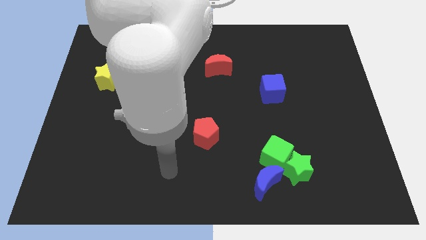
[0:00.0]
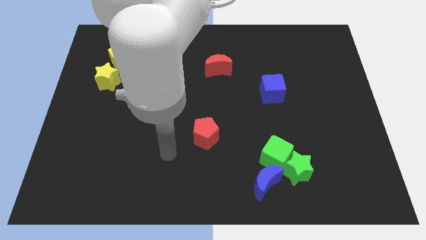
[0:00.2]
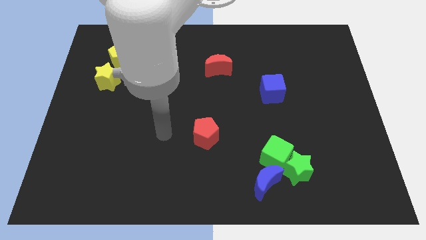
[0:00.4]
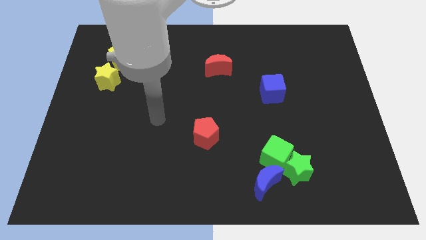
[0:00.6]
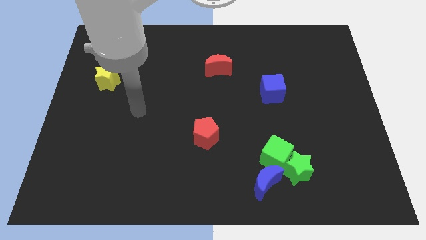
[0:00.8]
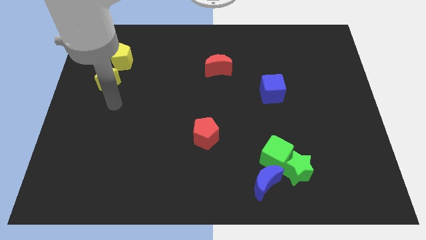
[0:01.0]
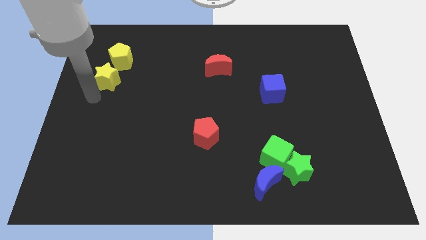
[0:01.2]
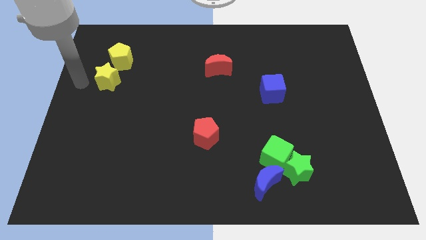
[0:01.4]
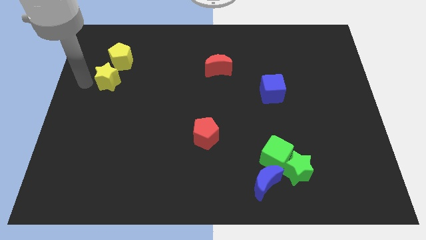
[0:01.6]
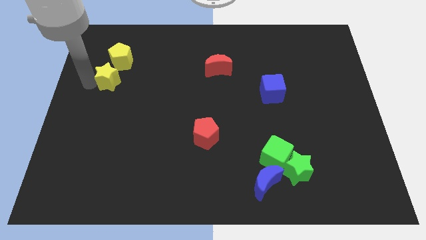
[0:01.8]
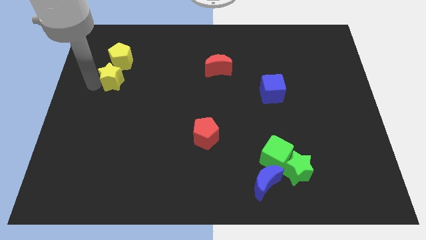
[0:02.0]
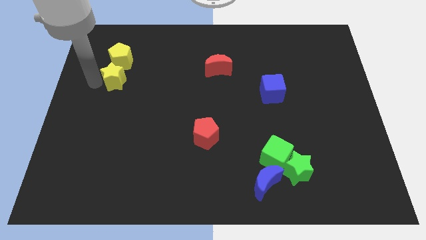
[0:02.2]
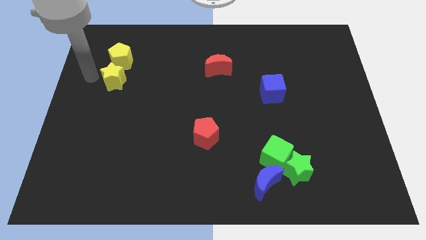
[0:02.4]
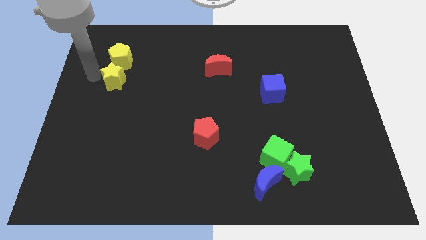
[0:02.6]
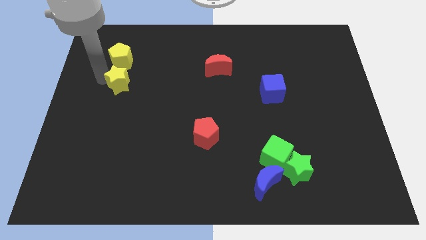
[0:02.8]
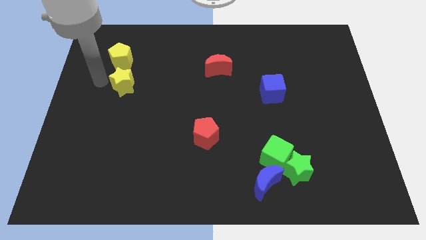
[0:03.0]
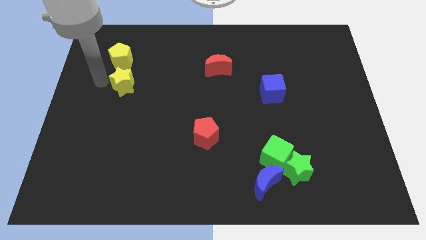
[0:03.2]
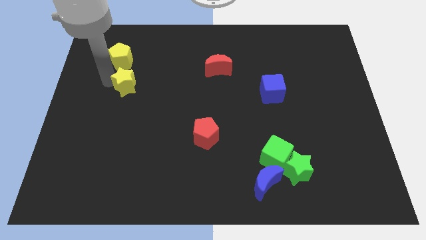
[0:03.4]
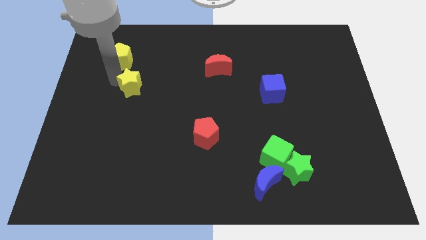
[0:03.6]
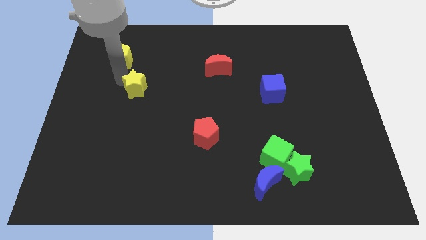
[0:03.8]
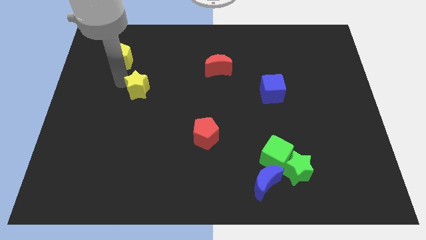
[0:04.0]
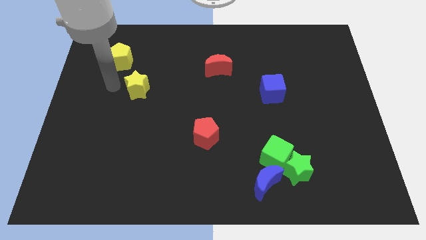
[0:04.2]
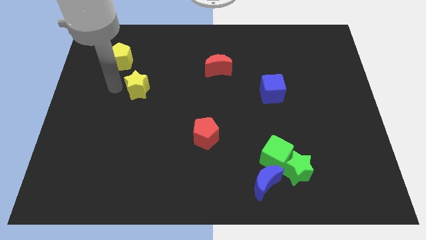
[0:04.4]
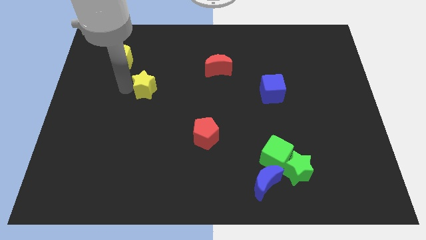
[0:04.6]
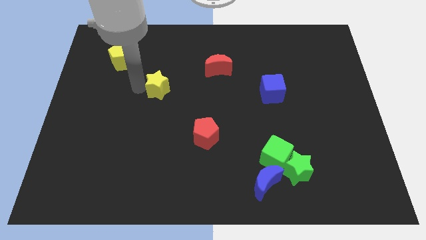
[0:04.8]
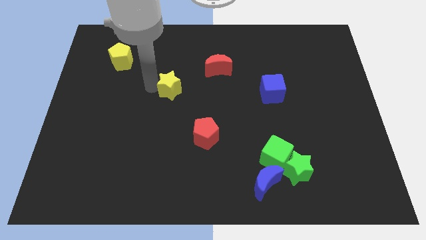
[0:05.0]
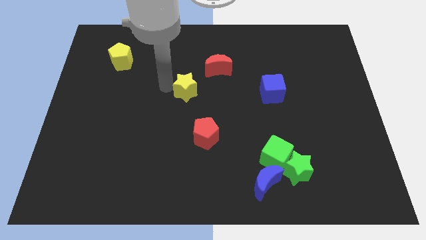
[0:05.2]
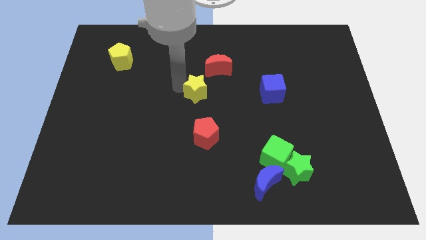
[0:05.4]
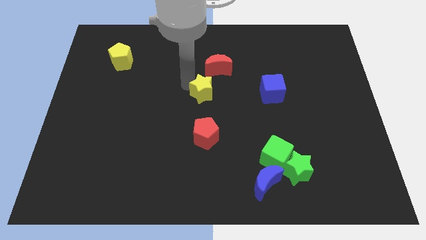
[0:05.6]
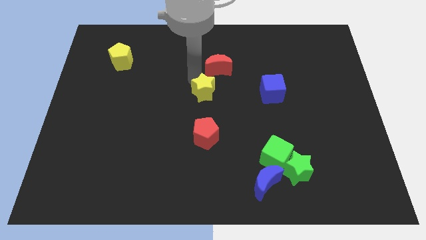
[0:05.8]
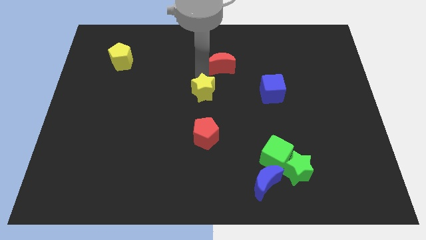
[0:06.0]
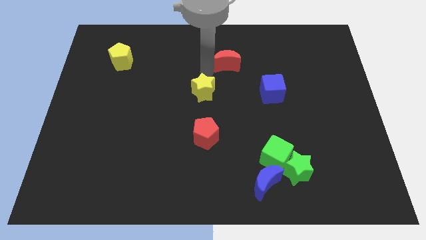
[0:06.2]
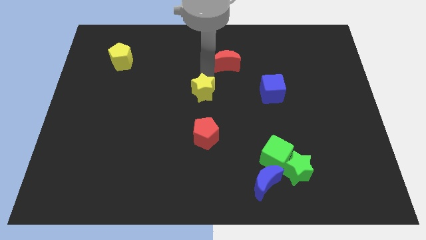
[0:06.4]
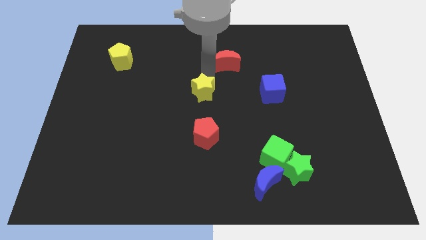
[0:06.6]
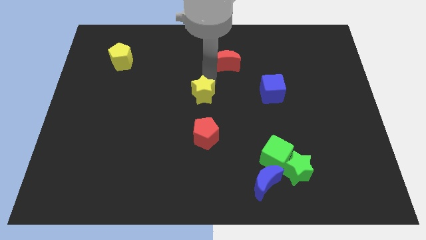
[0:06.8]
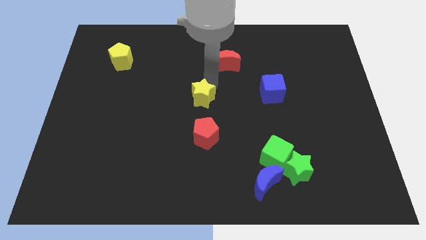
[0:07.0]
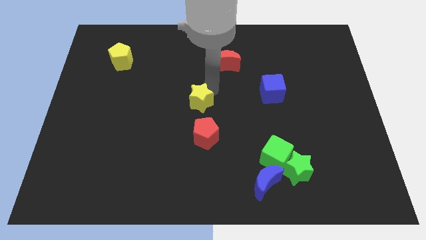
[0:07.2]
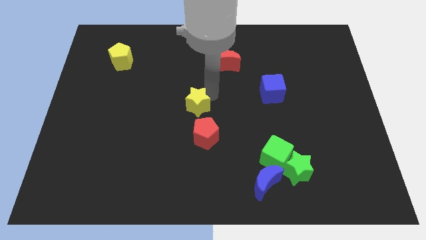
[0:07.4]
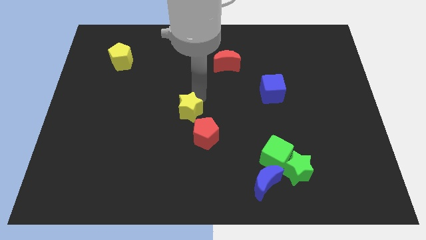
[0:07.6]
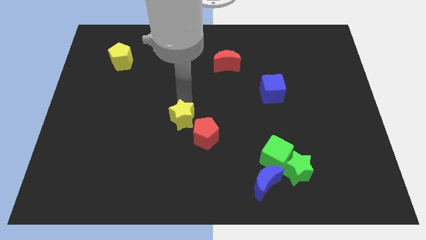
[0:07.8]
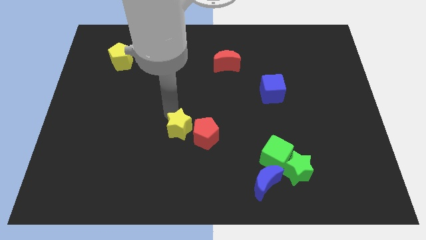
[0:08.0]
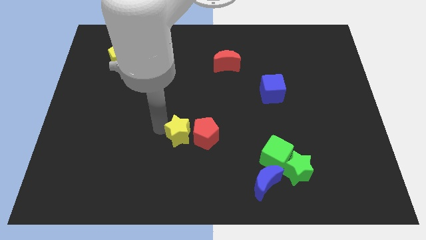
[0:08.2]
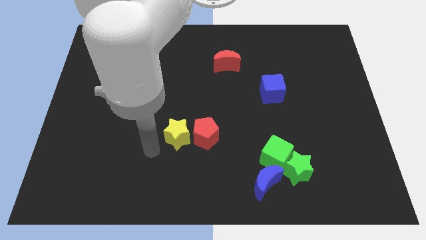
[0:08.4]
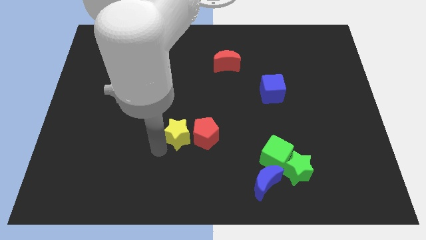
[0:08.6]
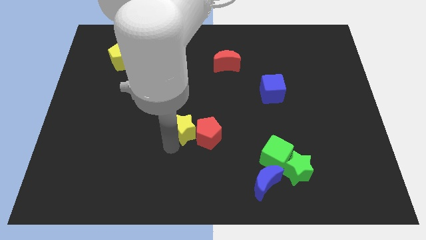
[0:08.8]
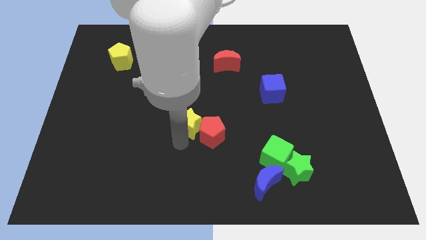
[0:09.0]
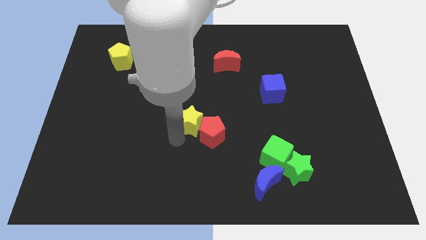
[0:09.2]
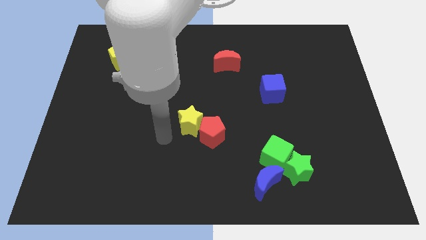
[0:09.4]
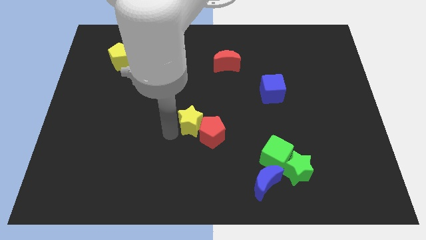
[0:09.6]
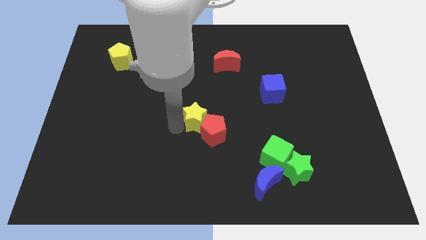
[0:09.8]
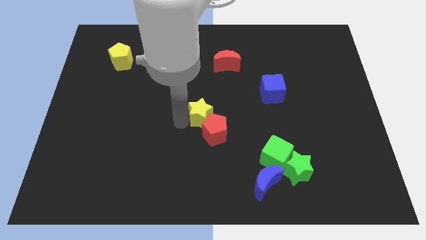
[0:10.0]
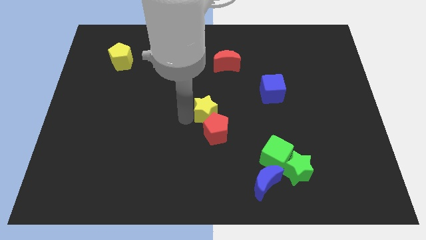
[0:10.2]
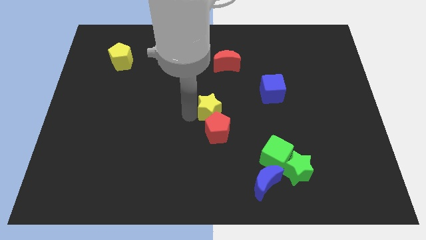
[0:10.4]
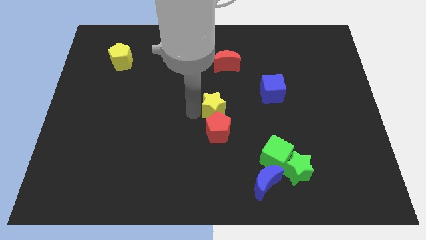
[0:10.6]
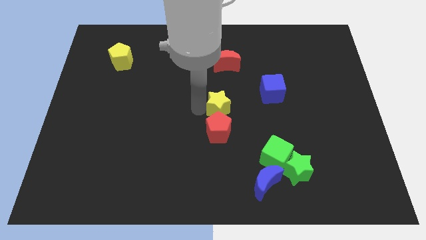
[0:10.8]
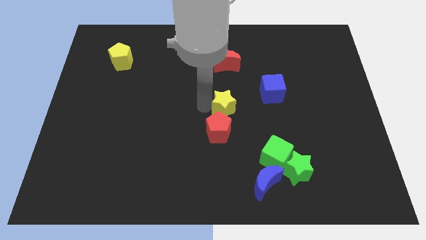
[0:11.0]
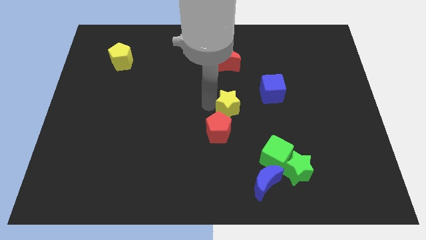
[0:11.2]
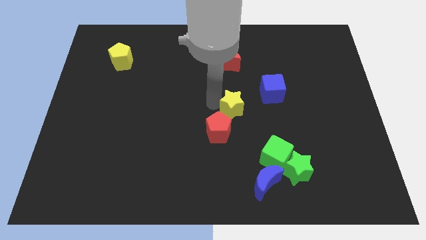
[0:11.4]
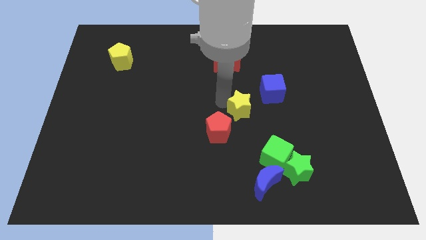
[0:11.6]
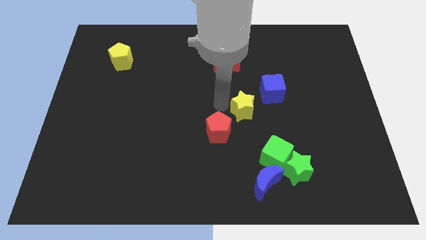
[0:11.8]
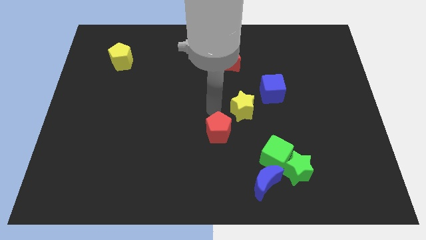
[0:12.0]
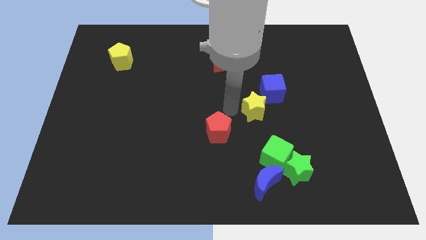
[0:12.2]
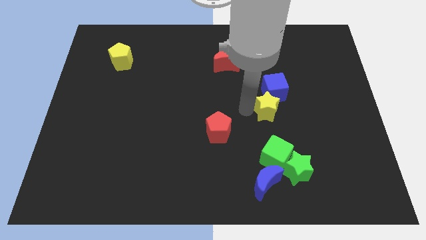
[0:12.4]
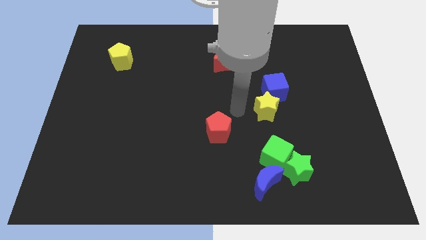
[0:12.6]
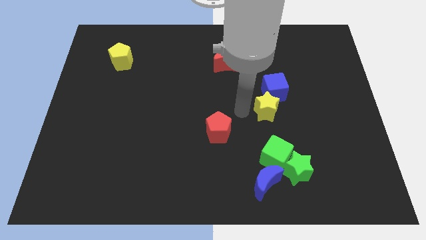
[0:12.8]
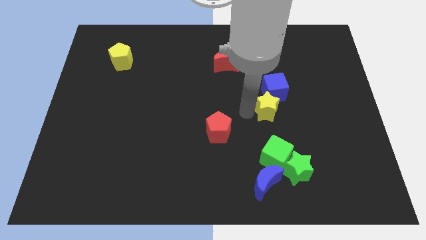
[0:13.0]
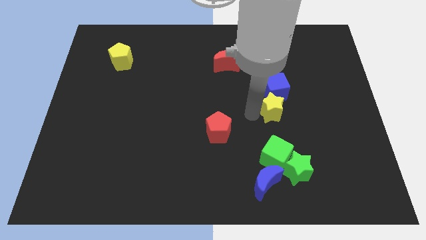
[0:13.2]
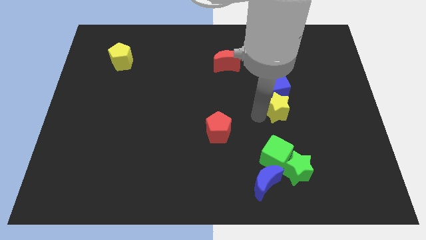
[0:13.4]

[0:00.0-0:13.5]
put the yellow star to the bottom right of the blue cube

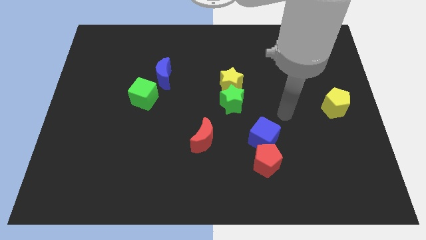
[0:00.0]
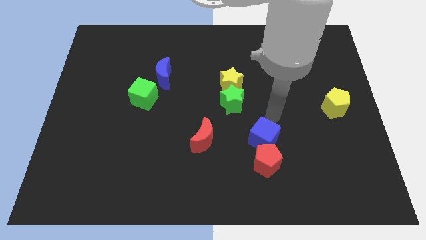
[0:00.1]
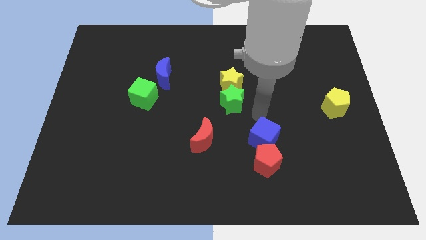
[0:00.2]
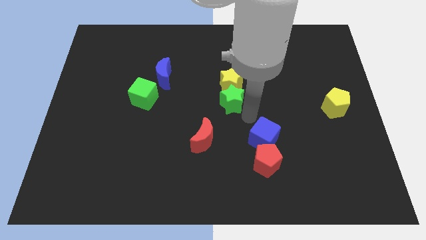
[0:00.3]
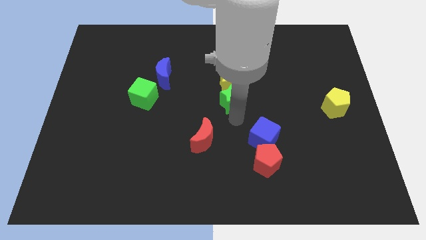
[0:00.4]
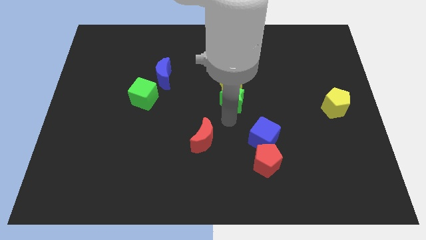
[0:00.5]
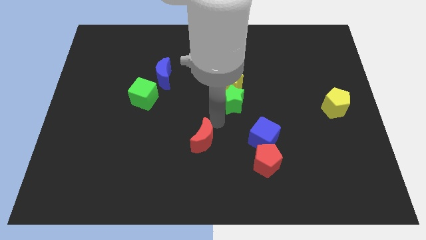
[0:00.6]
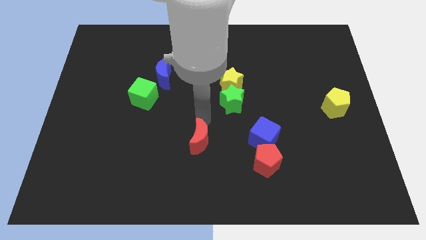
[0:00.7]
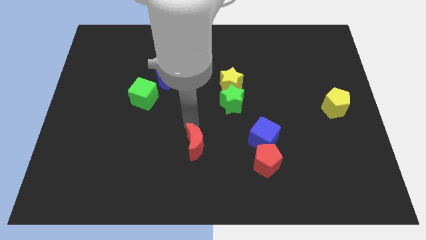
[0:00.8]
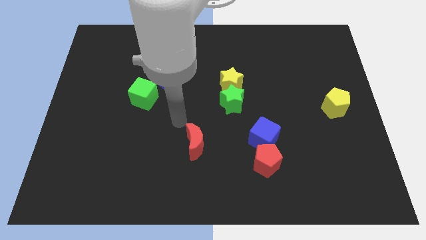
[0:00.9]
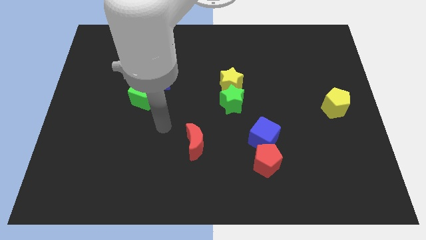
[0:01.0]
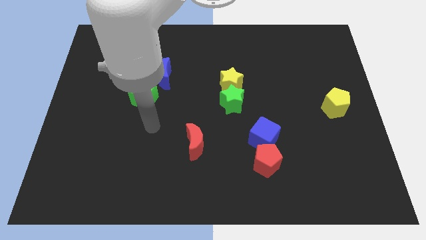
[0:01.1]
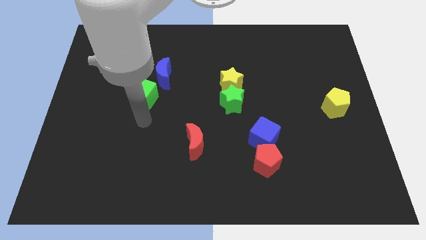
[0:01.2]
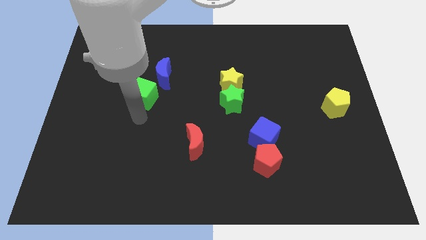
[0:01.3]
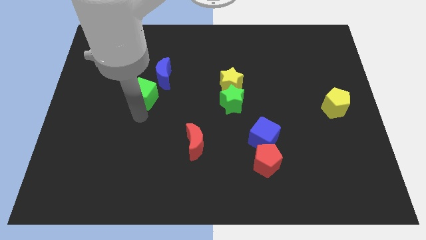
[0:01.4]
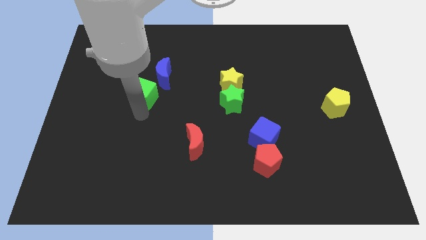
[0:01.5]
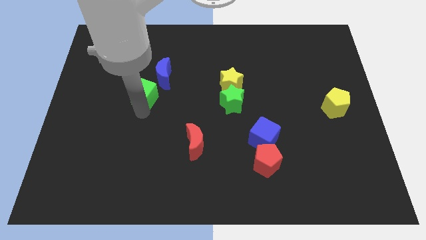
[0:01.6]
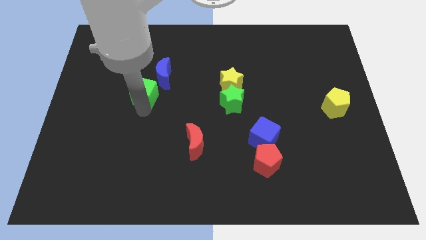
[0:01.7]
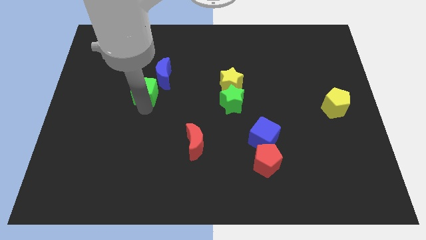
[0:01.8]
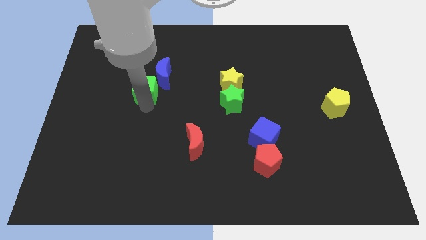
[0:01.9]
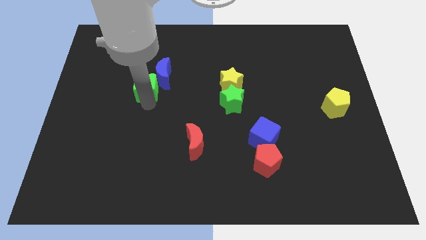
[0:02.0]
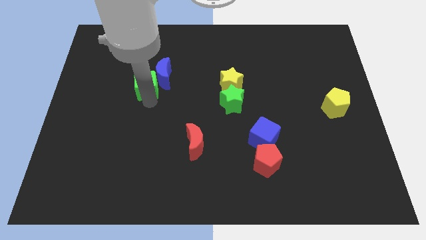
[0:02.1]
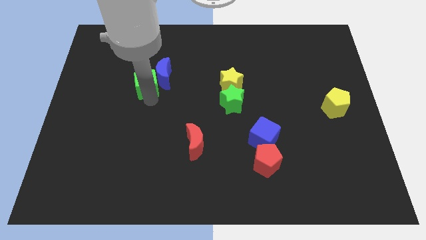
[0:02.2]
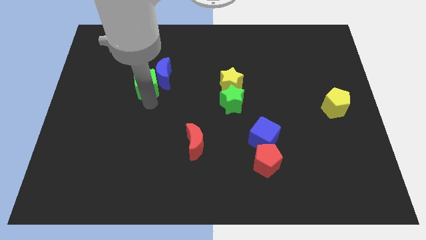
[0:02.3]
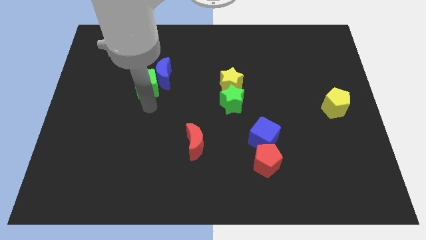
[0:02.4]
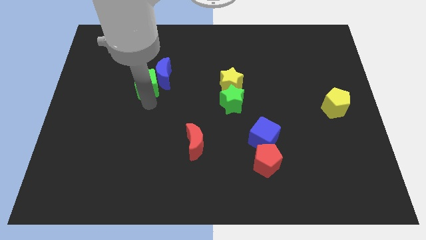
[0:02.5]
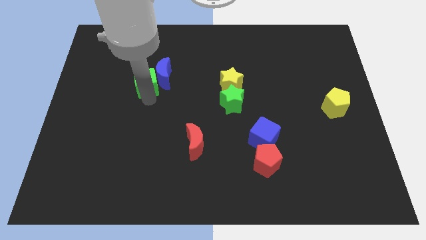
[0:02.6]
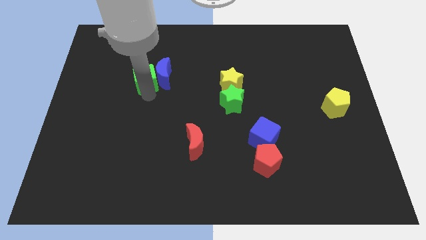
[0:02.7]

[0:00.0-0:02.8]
push the green cube to the top left side of the blue moon
